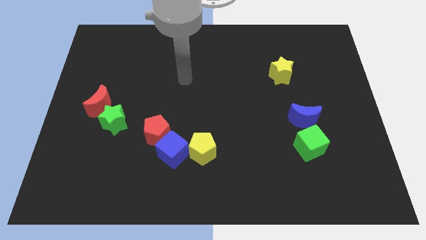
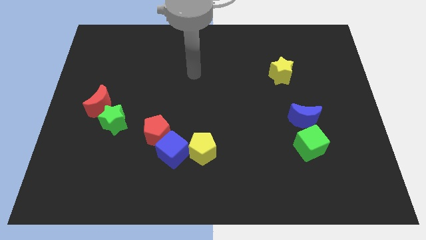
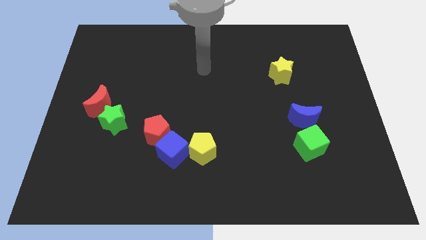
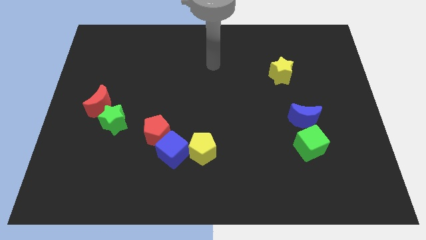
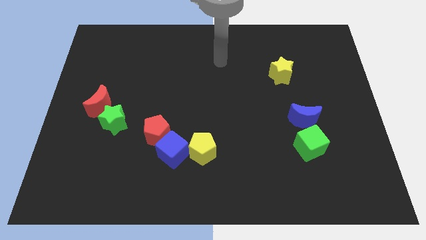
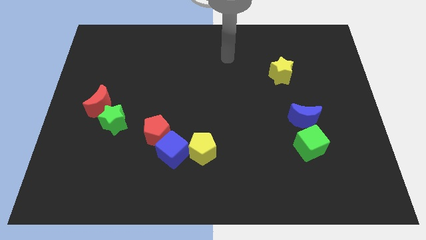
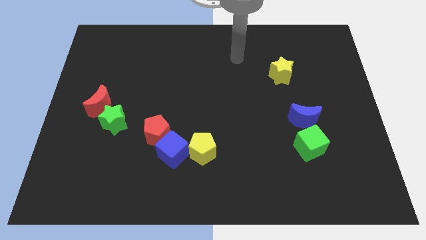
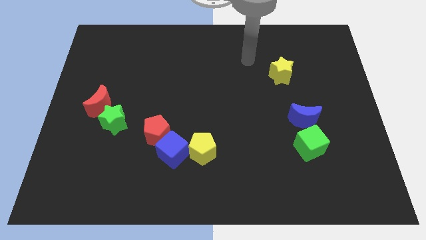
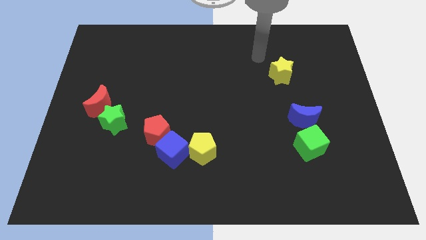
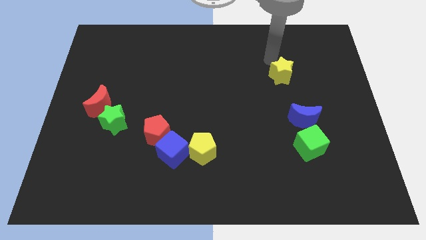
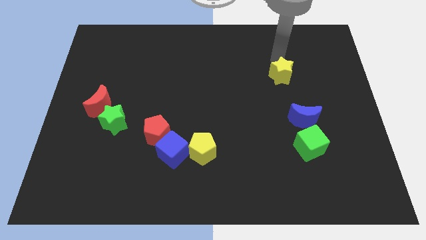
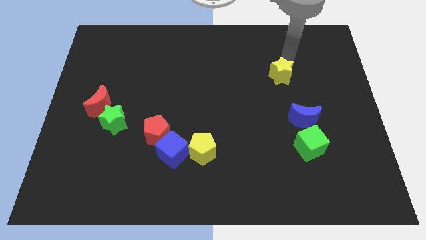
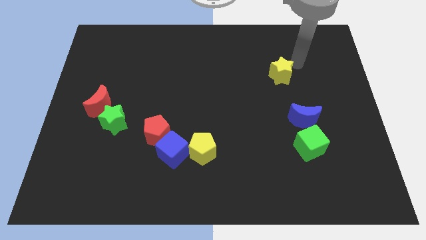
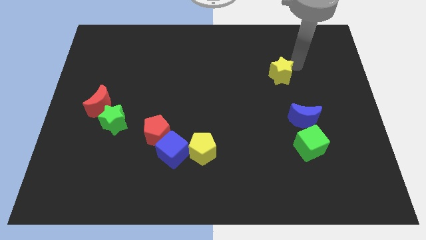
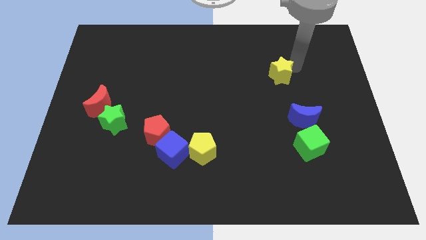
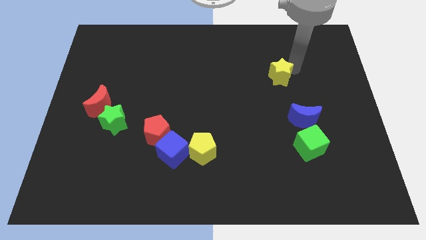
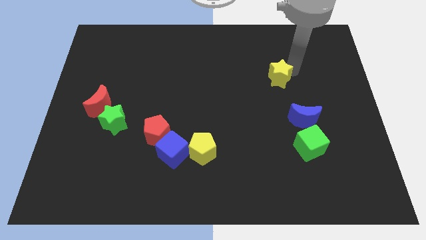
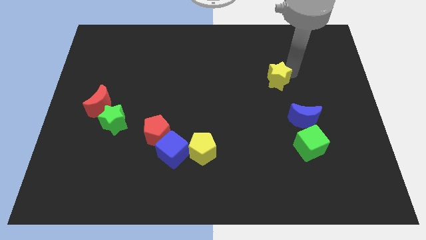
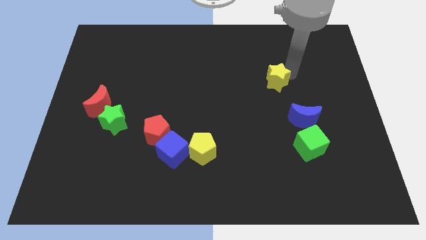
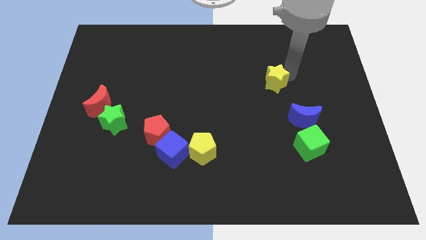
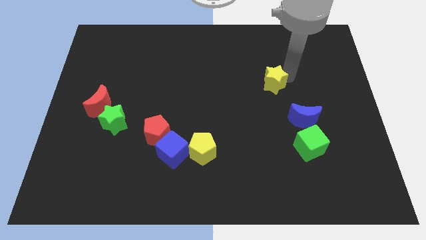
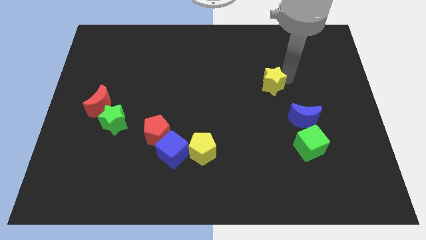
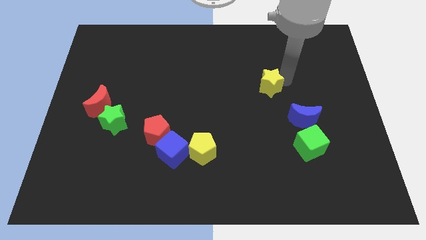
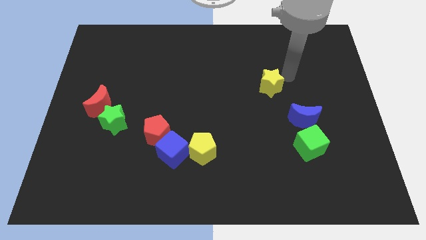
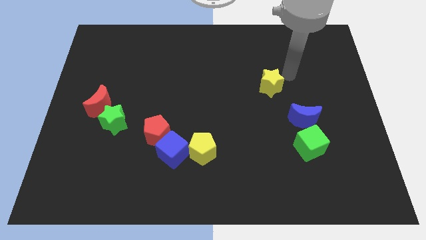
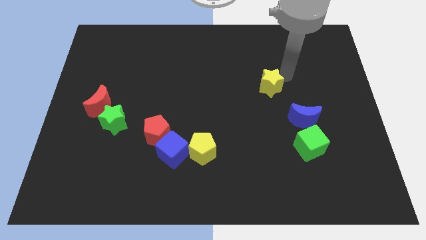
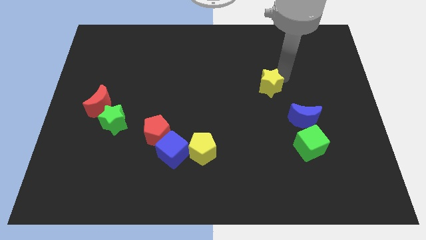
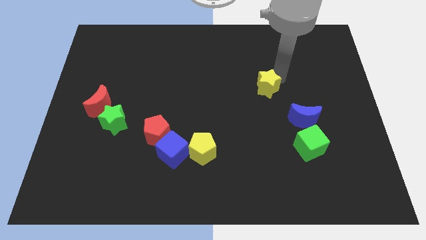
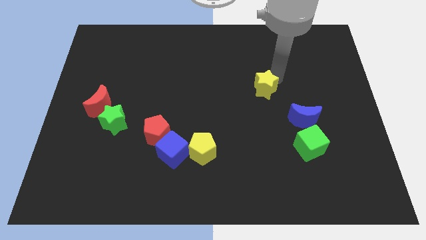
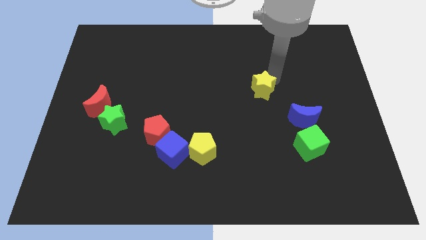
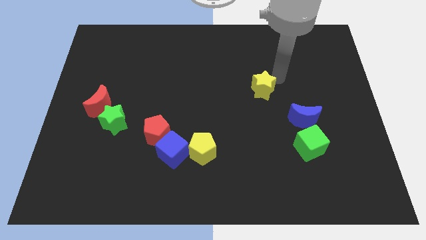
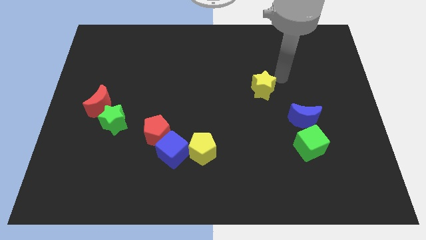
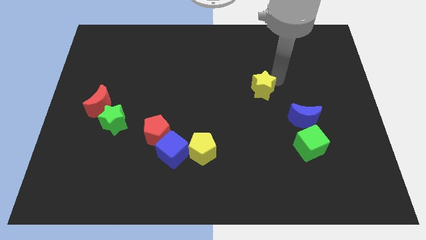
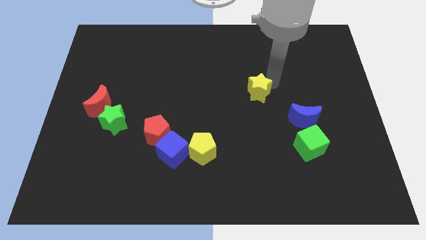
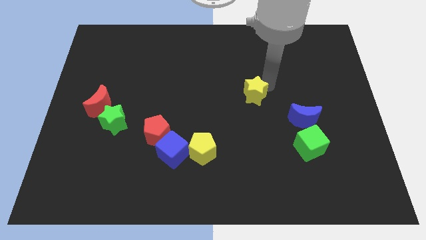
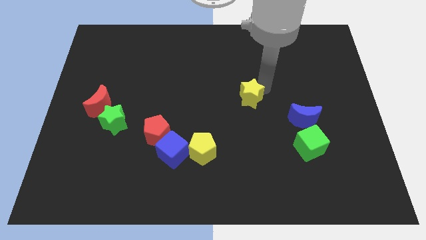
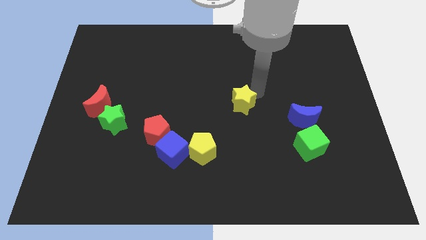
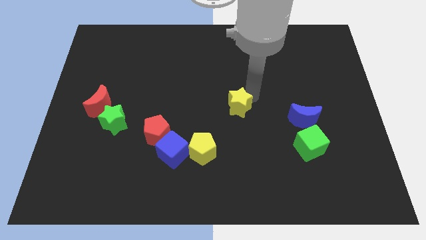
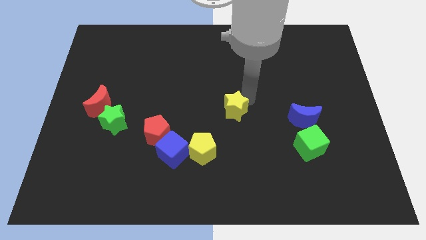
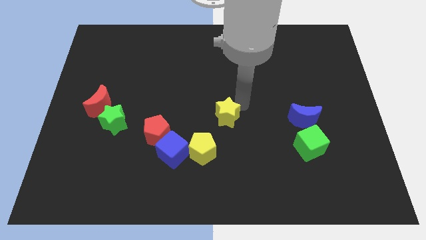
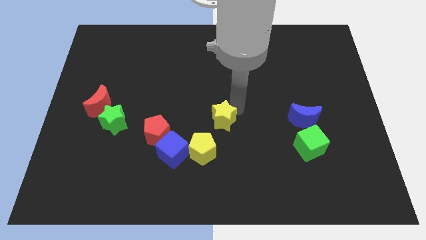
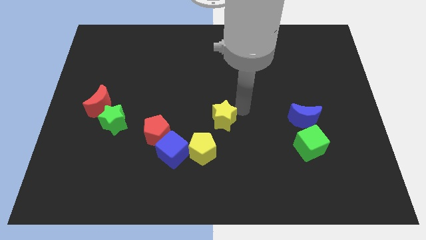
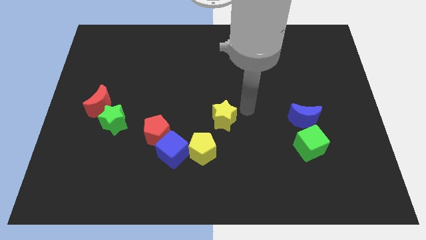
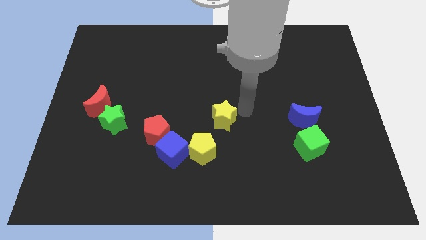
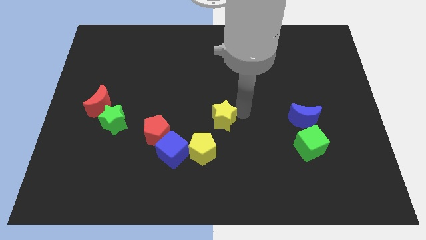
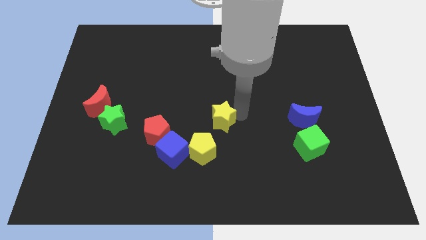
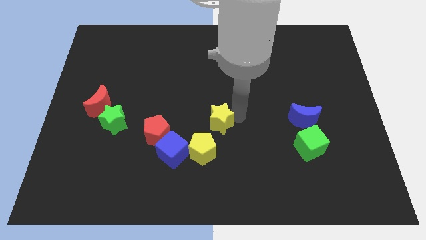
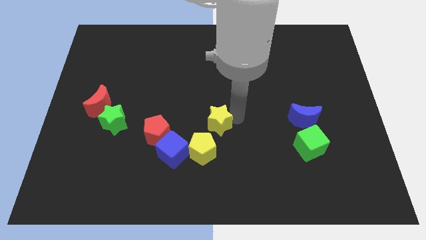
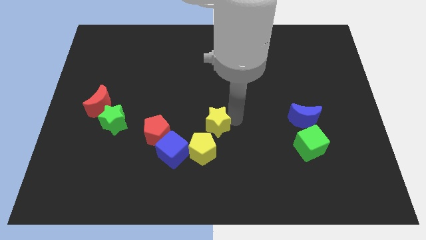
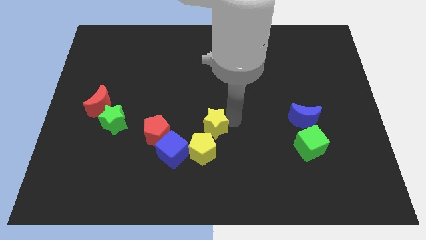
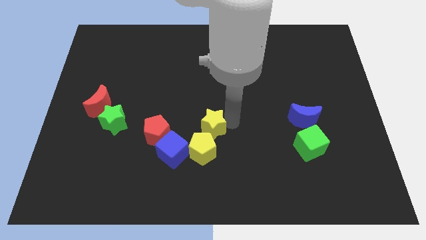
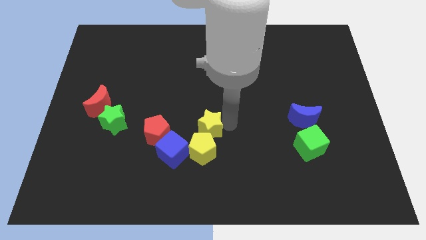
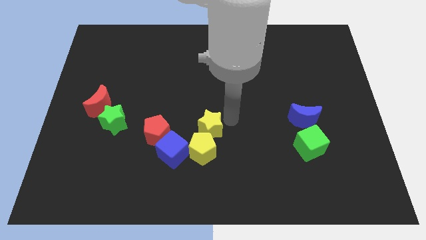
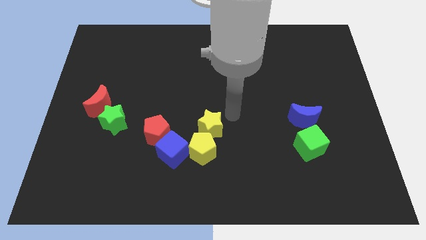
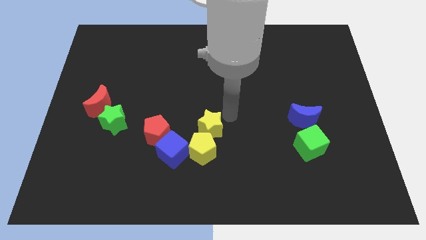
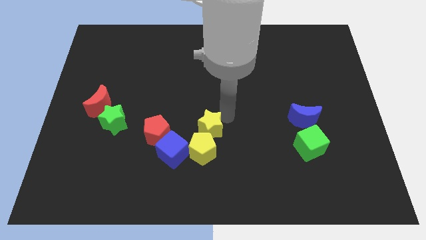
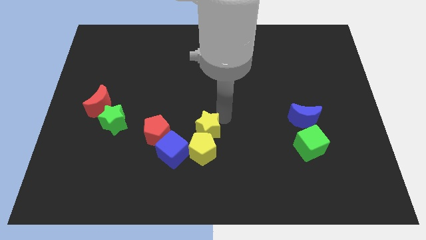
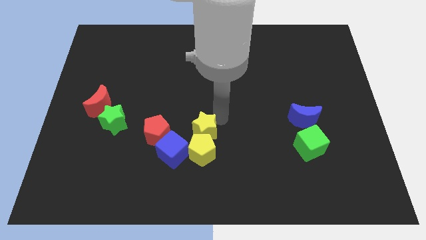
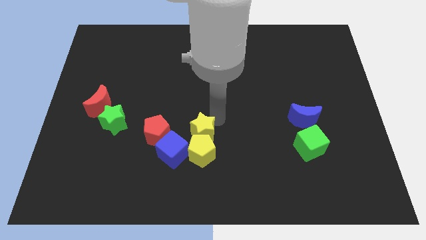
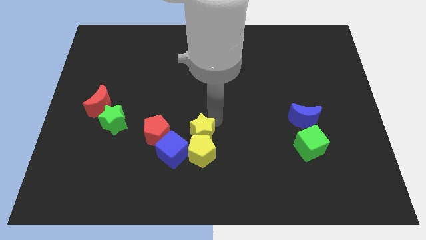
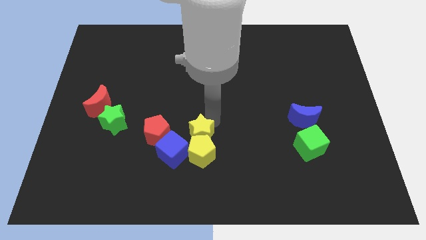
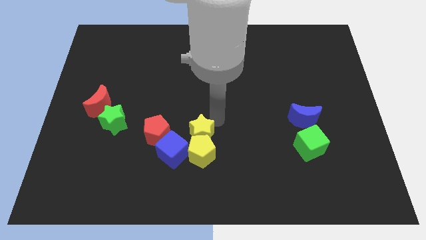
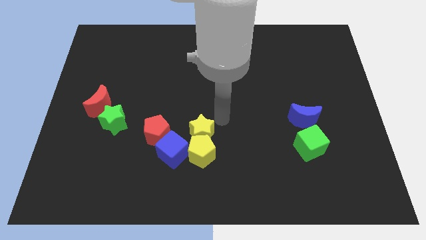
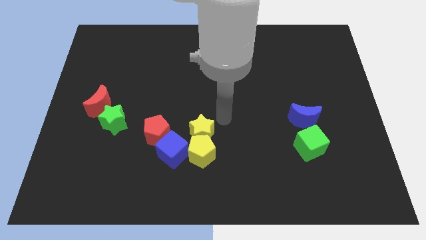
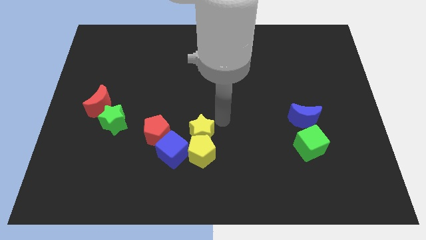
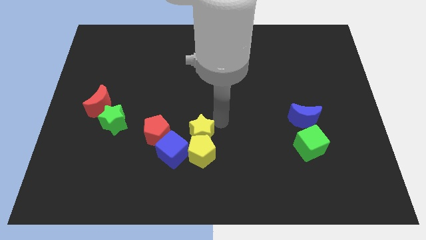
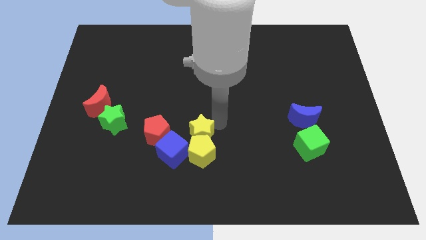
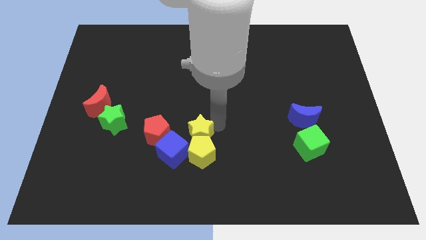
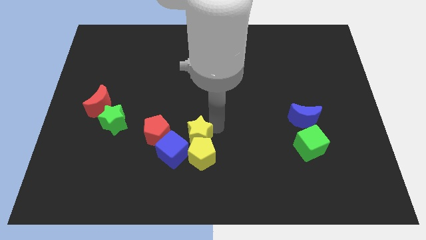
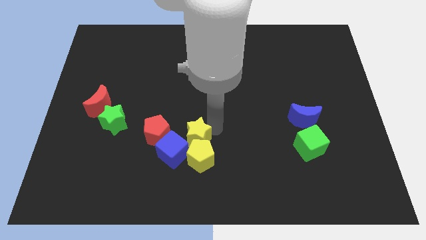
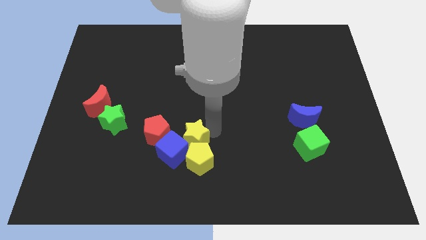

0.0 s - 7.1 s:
put the yellow star close to the blue cube
